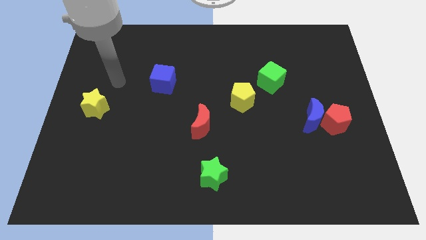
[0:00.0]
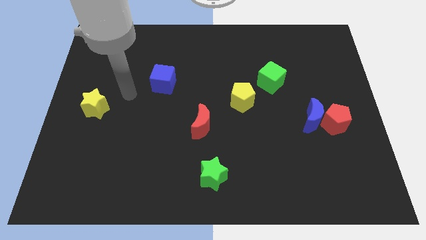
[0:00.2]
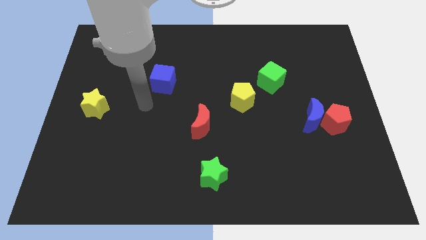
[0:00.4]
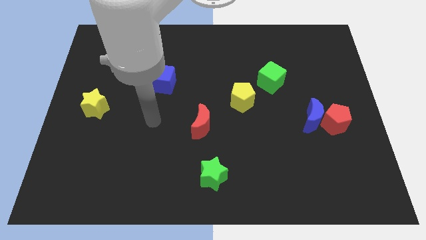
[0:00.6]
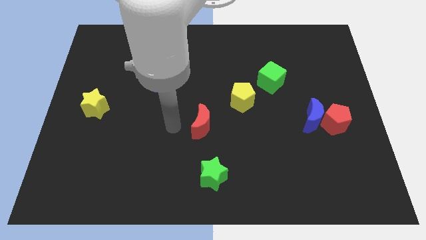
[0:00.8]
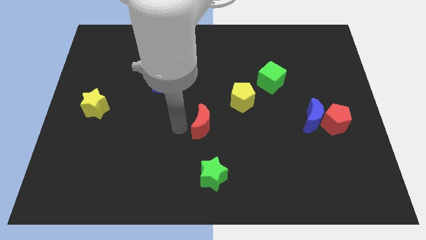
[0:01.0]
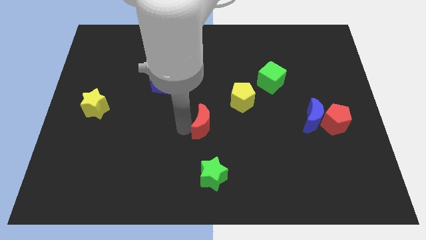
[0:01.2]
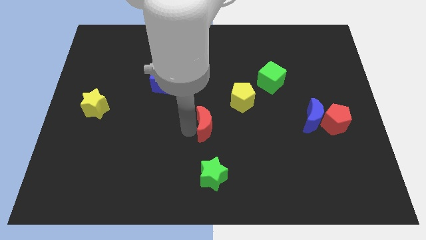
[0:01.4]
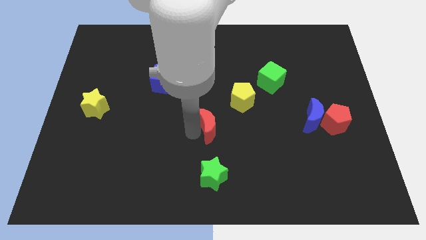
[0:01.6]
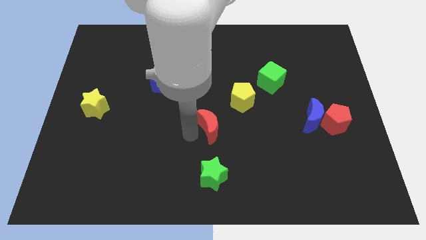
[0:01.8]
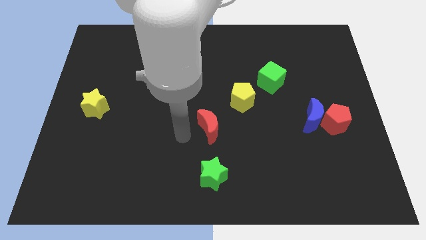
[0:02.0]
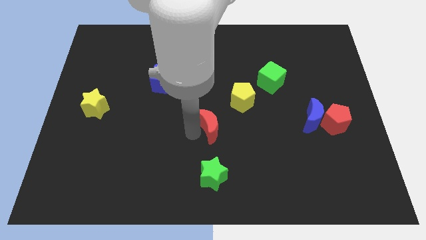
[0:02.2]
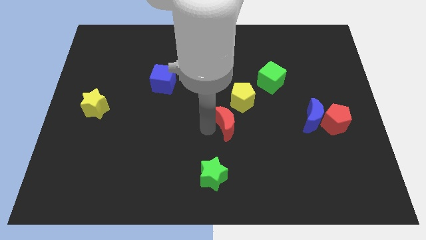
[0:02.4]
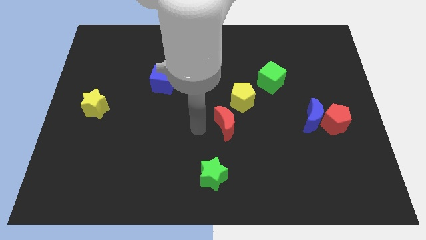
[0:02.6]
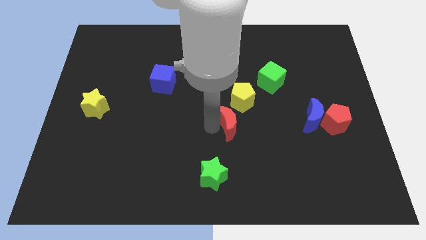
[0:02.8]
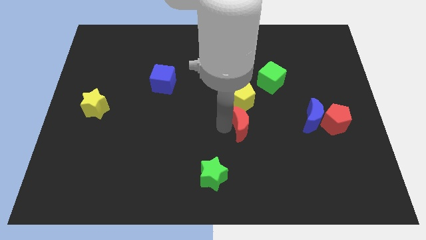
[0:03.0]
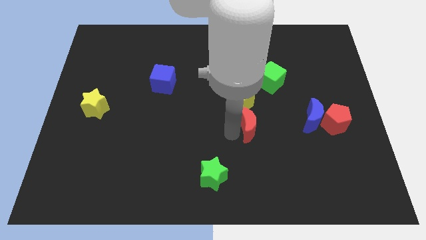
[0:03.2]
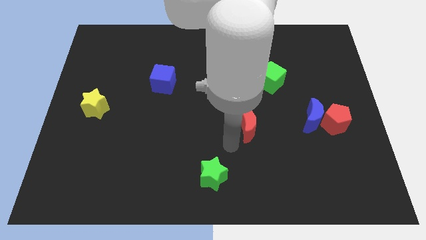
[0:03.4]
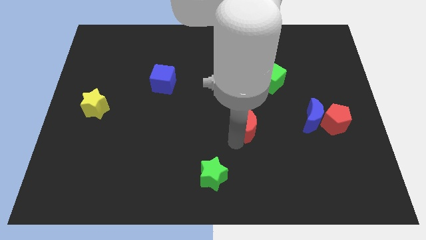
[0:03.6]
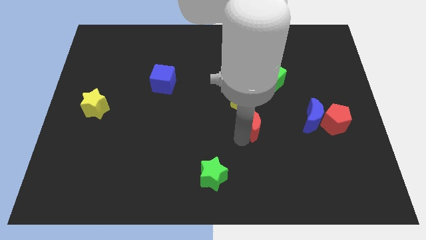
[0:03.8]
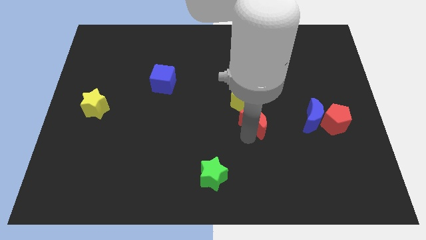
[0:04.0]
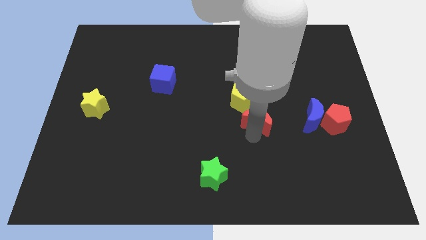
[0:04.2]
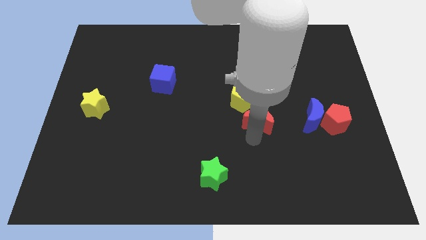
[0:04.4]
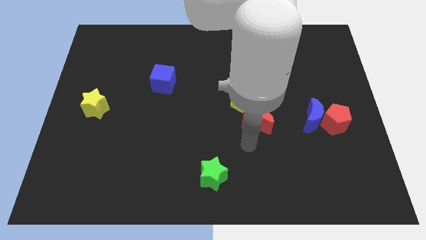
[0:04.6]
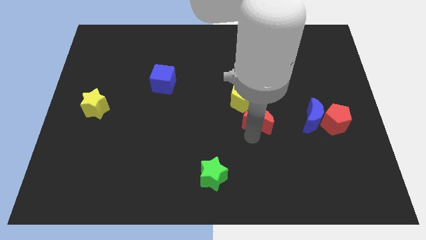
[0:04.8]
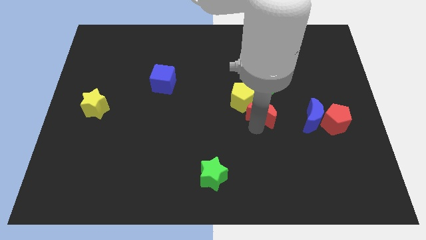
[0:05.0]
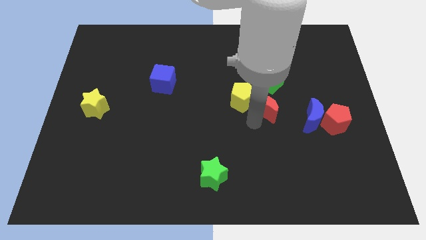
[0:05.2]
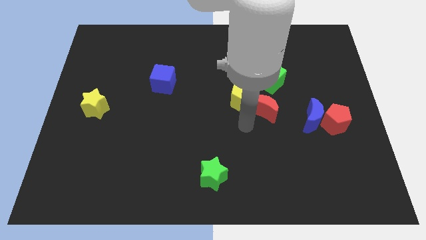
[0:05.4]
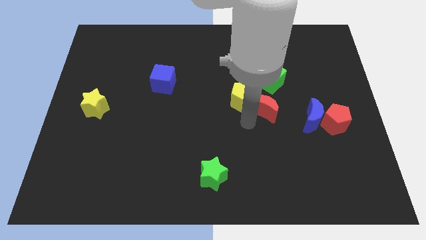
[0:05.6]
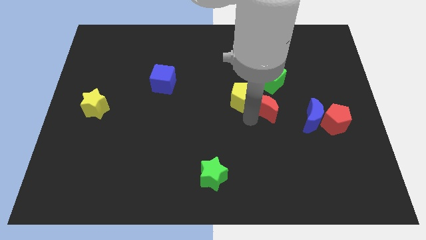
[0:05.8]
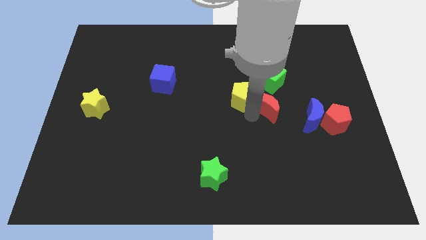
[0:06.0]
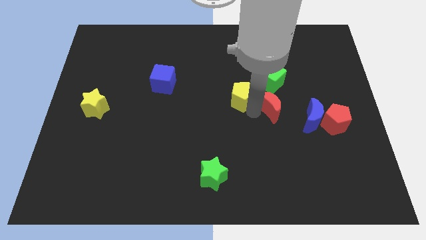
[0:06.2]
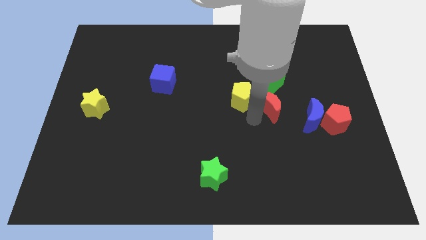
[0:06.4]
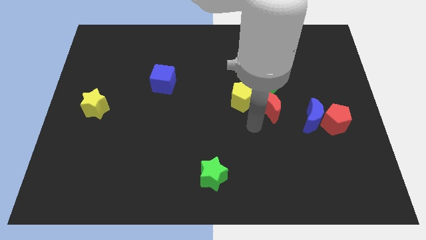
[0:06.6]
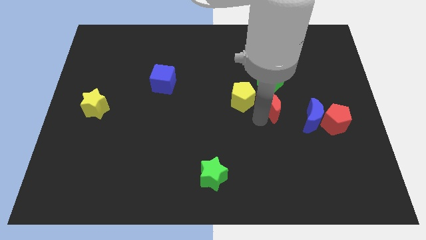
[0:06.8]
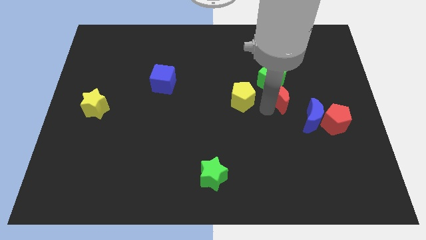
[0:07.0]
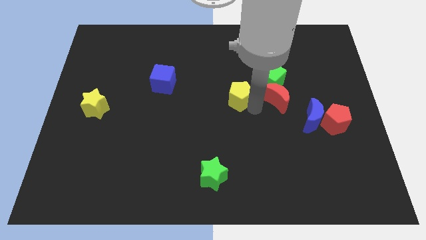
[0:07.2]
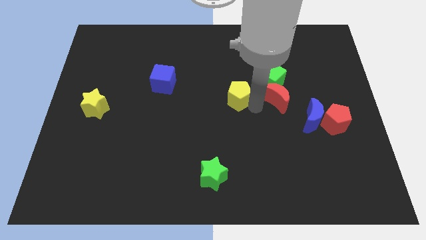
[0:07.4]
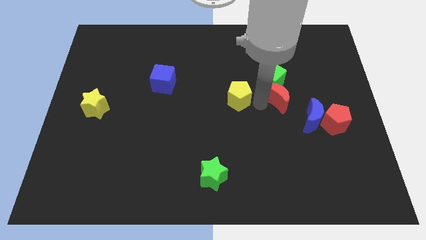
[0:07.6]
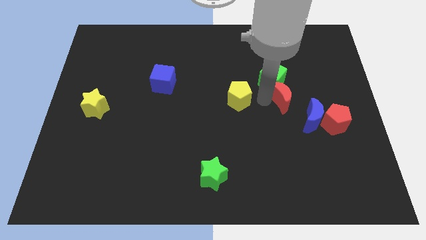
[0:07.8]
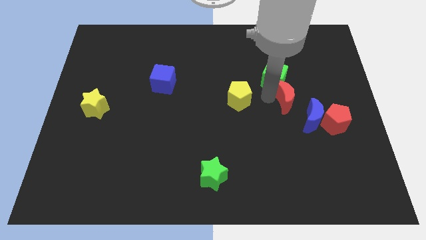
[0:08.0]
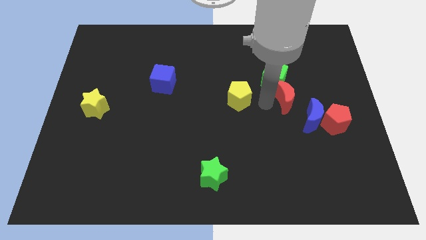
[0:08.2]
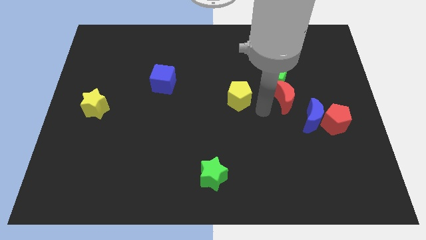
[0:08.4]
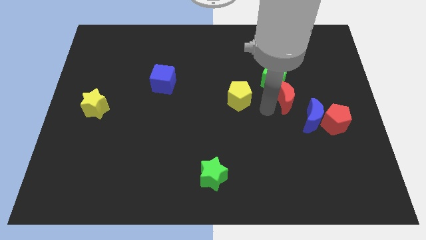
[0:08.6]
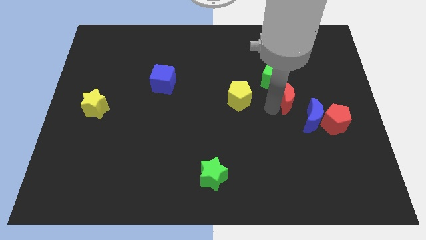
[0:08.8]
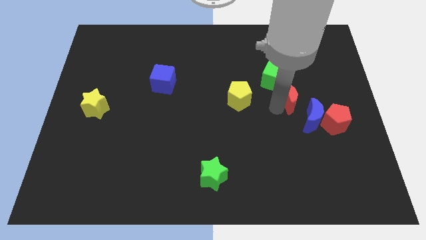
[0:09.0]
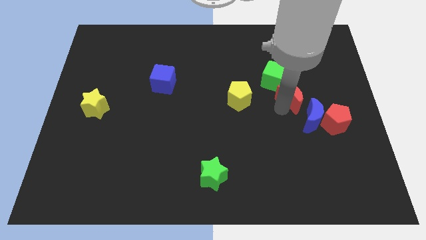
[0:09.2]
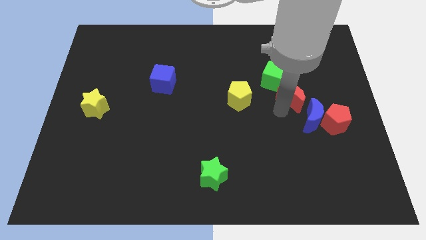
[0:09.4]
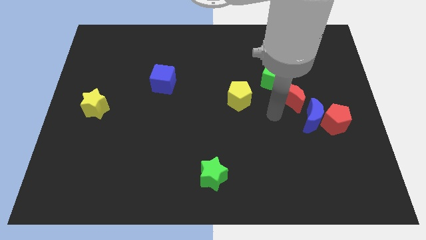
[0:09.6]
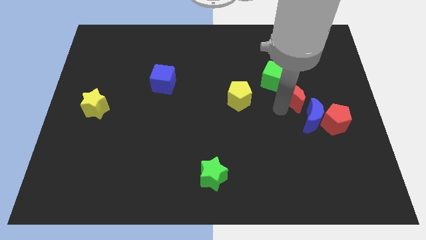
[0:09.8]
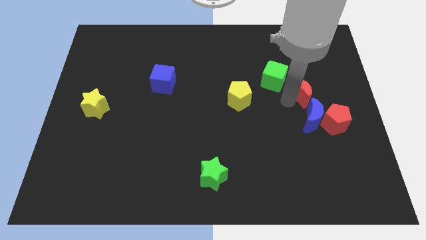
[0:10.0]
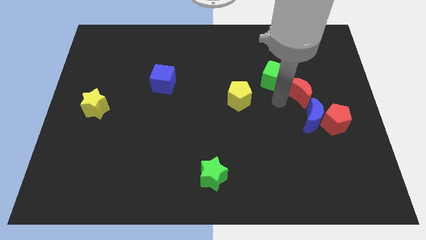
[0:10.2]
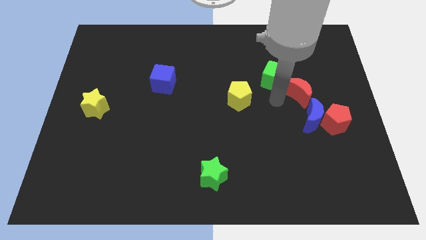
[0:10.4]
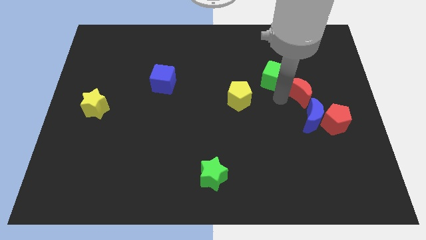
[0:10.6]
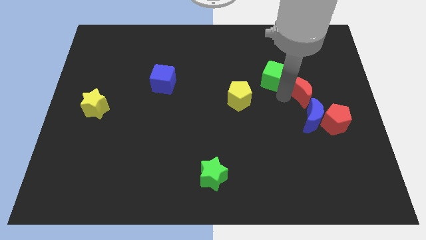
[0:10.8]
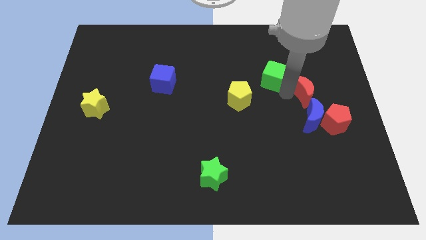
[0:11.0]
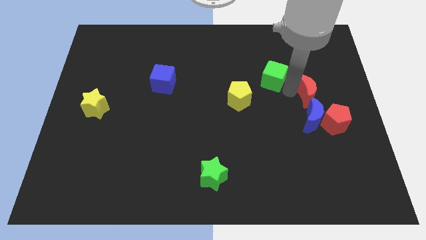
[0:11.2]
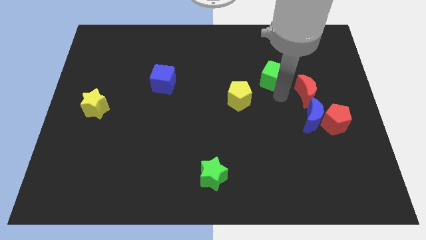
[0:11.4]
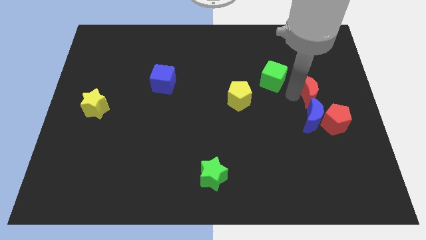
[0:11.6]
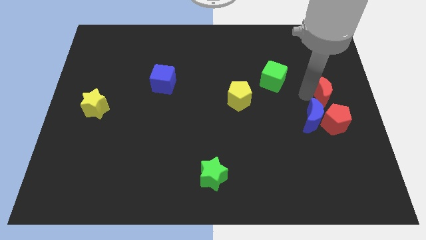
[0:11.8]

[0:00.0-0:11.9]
slide the red moon to the right side of the board
